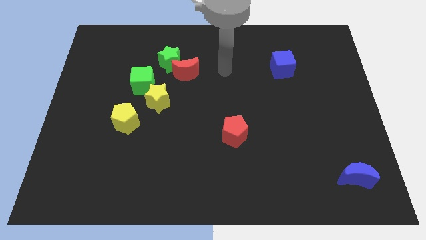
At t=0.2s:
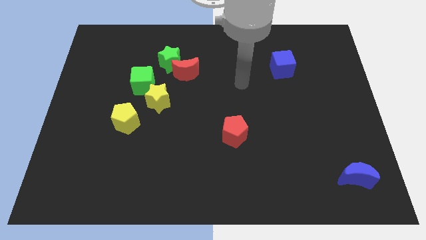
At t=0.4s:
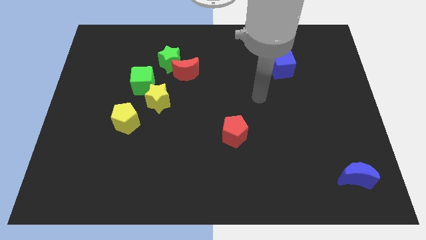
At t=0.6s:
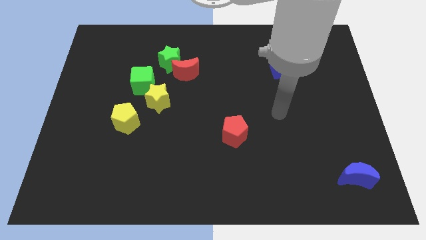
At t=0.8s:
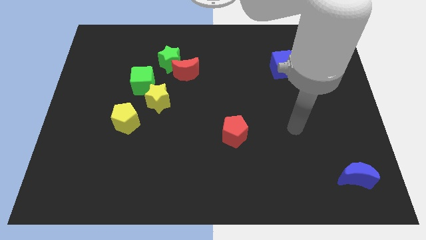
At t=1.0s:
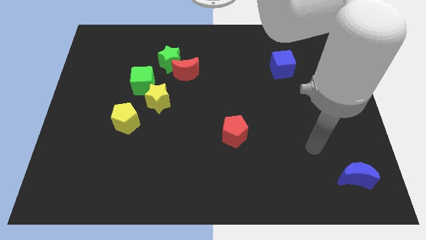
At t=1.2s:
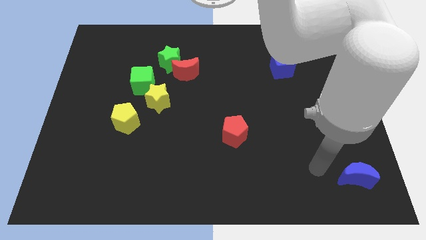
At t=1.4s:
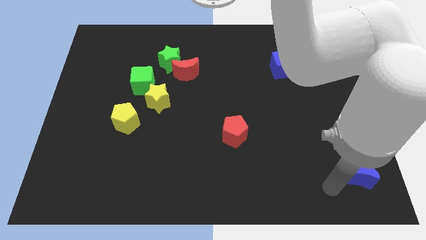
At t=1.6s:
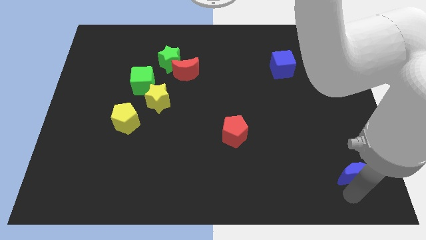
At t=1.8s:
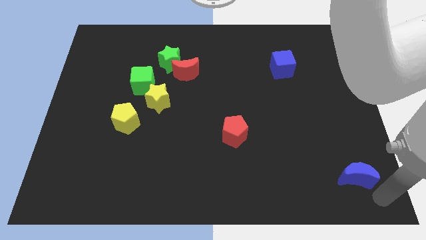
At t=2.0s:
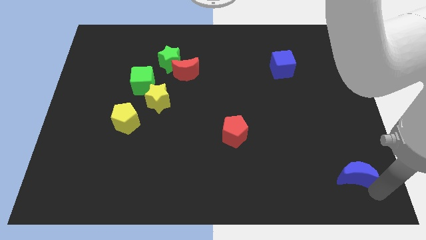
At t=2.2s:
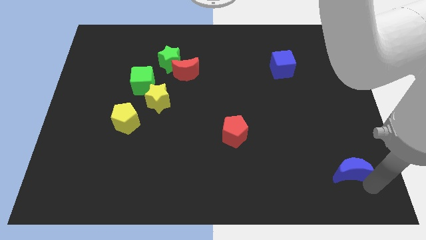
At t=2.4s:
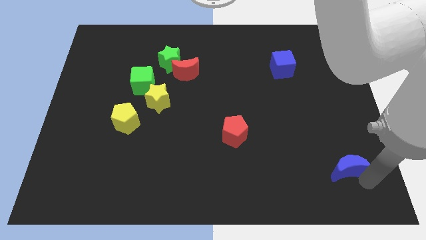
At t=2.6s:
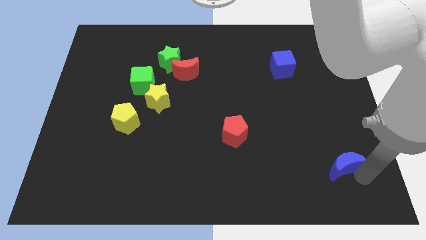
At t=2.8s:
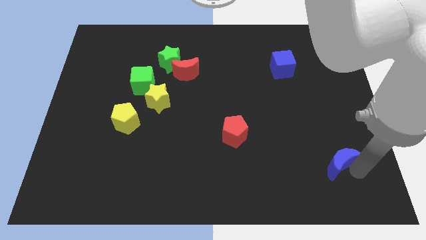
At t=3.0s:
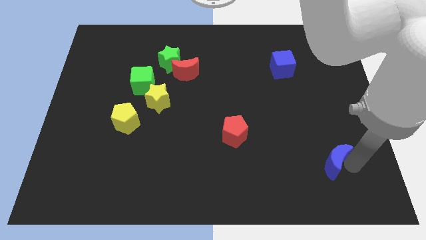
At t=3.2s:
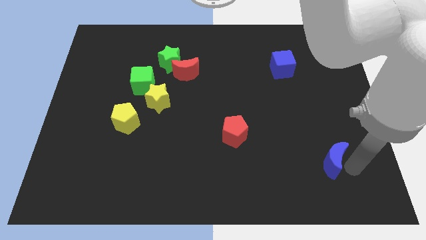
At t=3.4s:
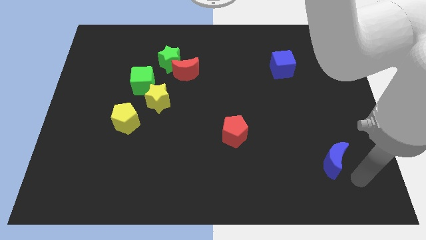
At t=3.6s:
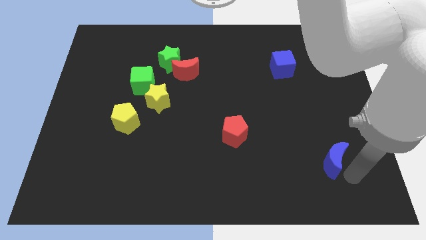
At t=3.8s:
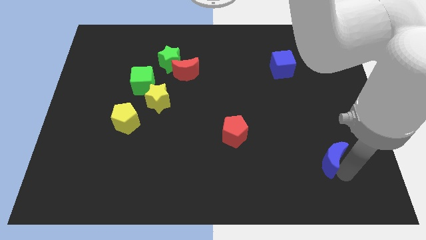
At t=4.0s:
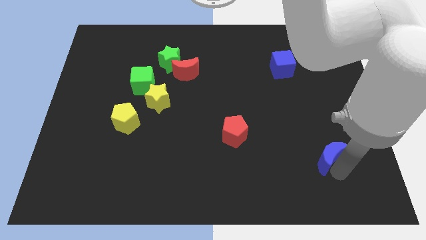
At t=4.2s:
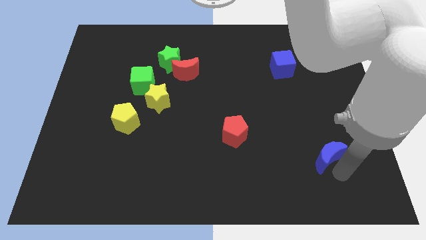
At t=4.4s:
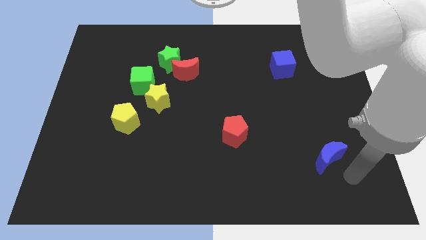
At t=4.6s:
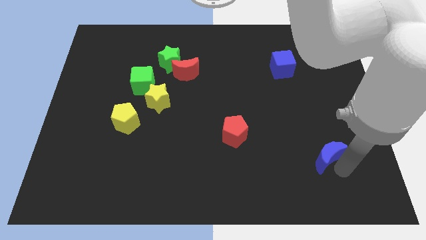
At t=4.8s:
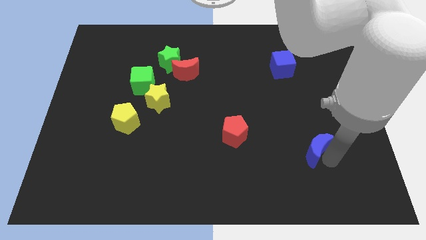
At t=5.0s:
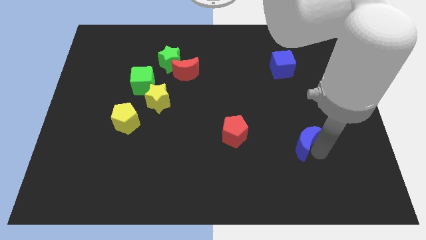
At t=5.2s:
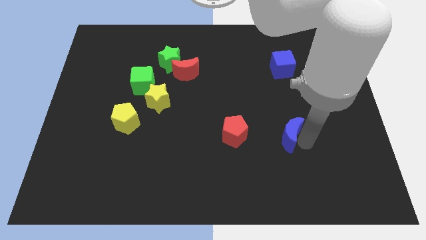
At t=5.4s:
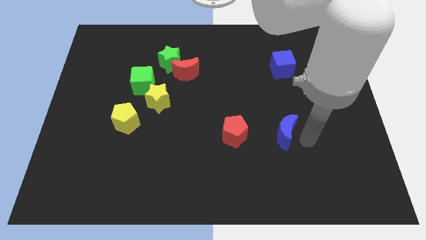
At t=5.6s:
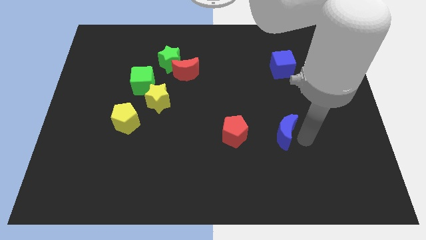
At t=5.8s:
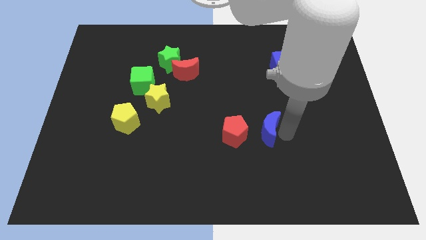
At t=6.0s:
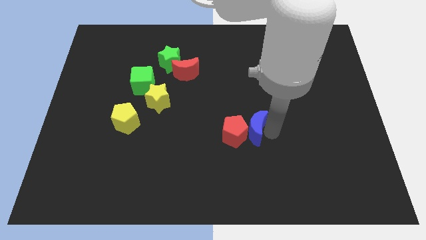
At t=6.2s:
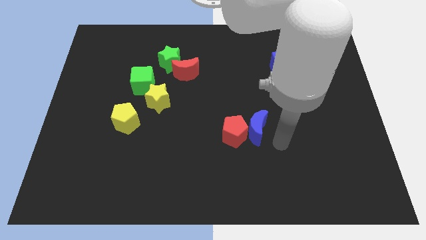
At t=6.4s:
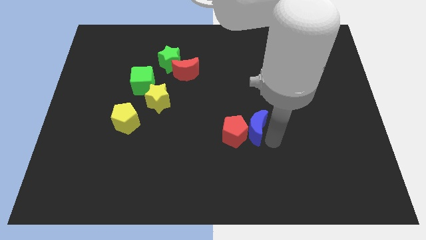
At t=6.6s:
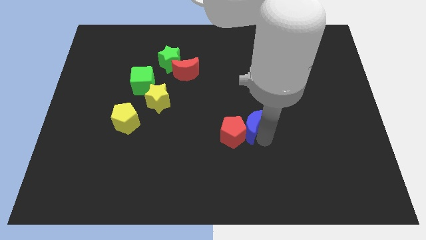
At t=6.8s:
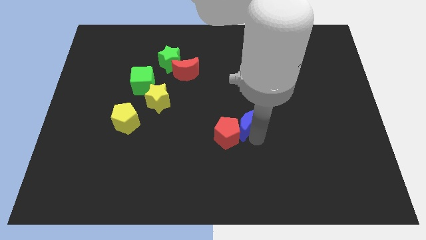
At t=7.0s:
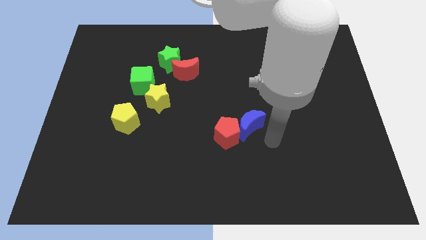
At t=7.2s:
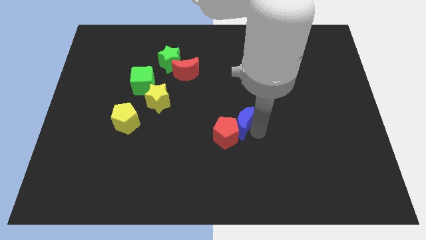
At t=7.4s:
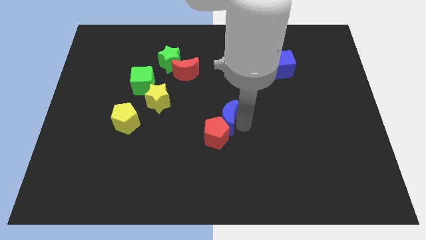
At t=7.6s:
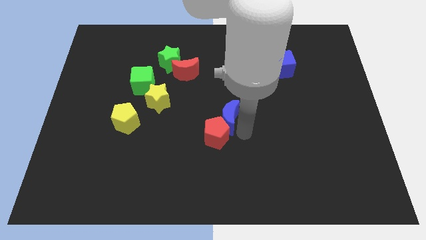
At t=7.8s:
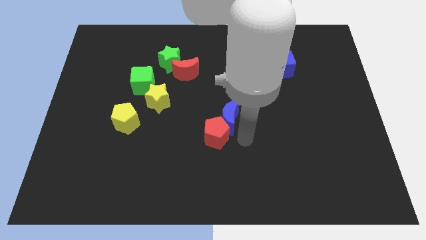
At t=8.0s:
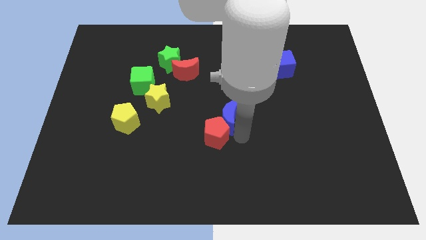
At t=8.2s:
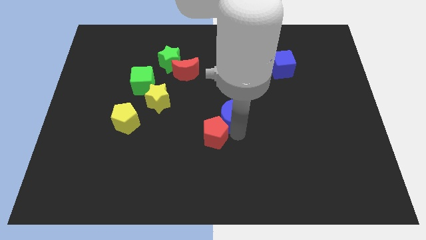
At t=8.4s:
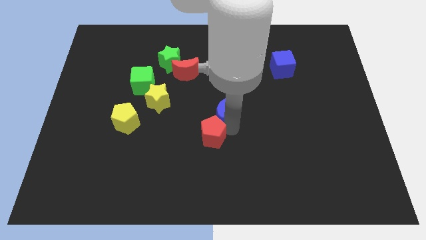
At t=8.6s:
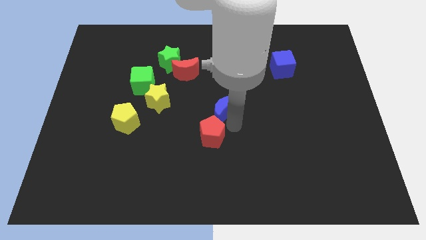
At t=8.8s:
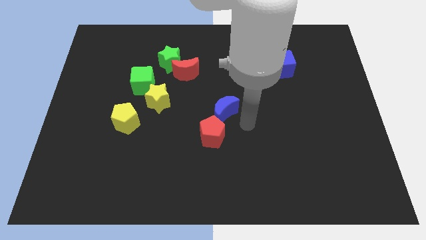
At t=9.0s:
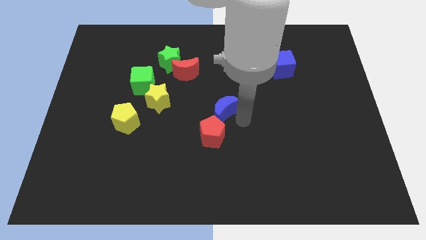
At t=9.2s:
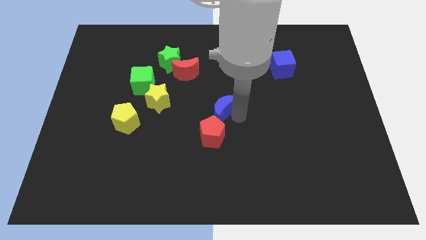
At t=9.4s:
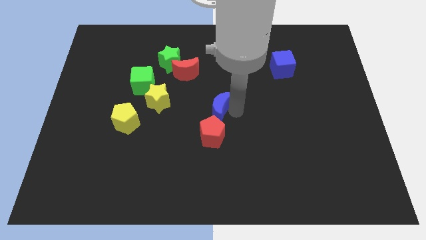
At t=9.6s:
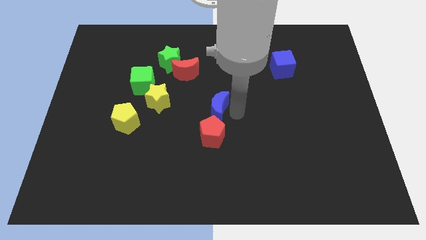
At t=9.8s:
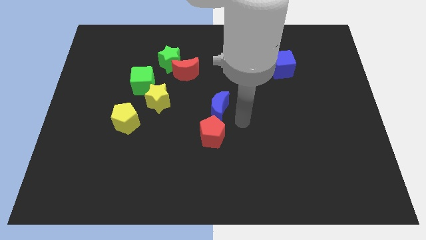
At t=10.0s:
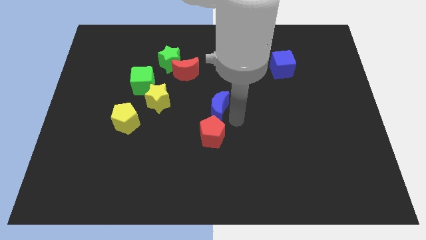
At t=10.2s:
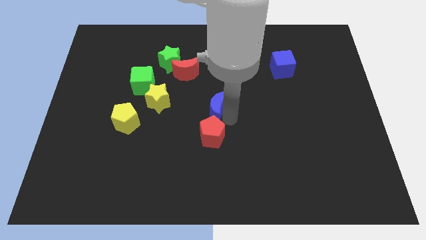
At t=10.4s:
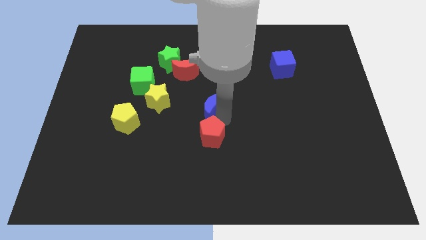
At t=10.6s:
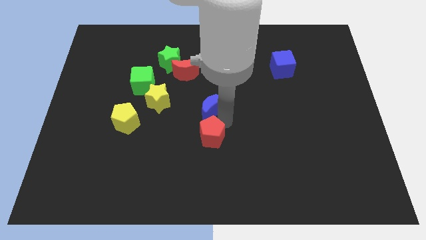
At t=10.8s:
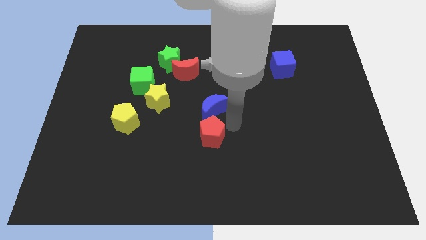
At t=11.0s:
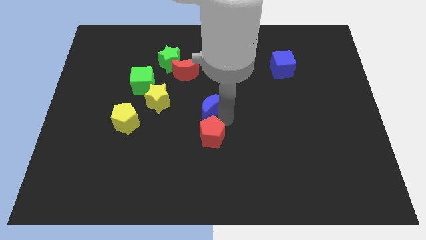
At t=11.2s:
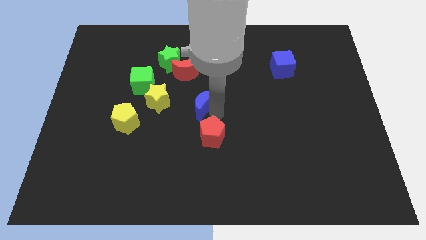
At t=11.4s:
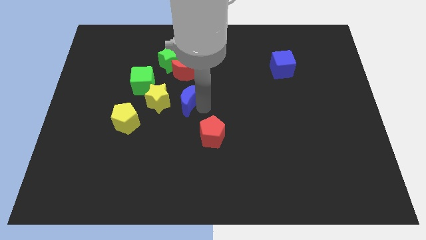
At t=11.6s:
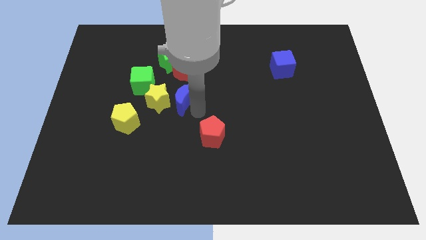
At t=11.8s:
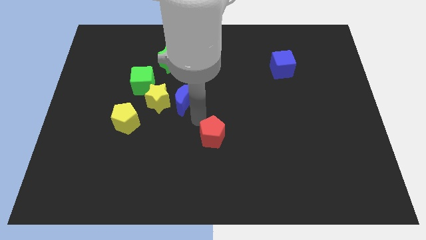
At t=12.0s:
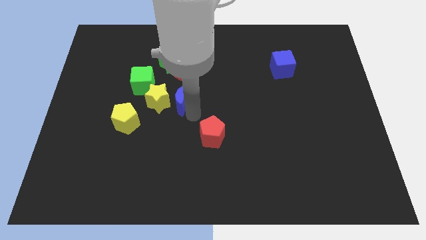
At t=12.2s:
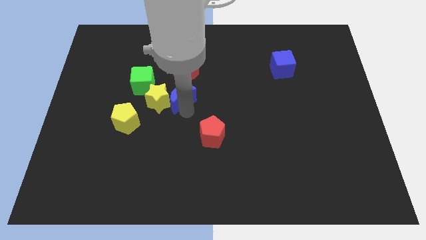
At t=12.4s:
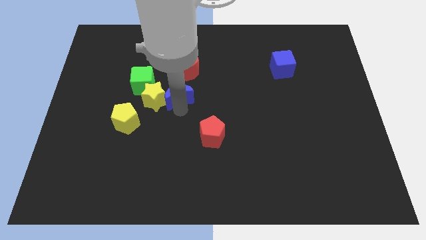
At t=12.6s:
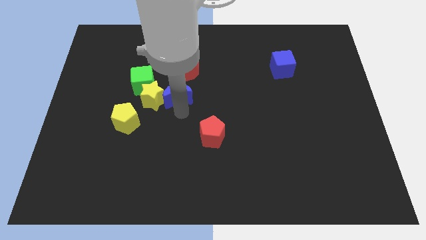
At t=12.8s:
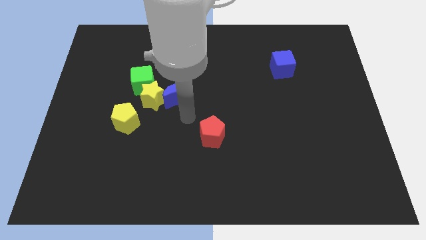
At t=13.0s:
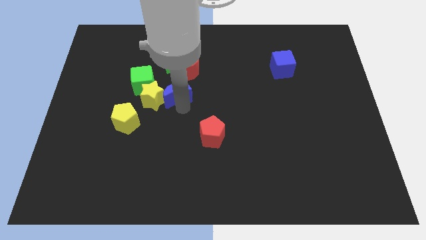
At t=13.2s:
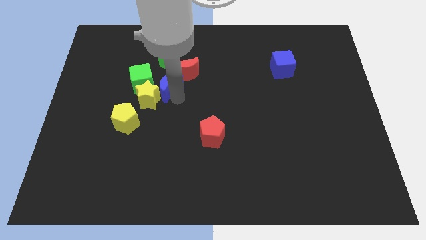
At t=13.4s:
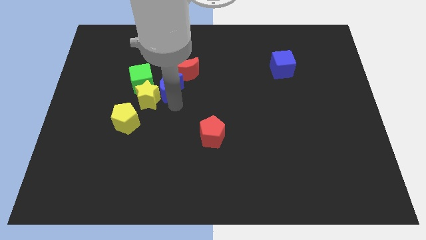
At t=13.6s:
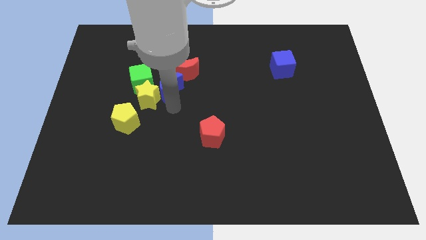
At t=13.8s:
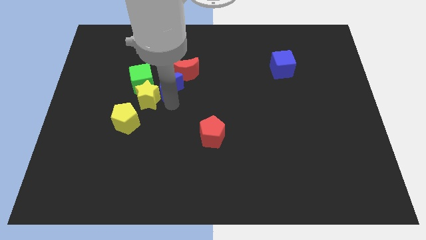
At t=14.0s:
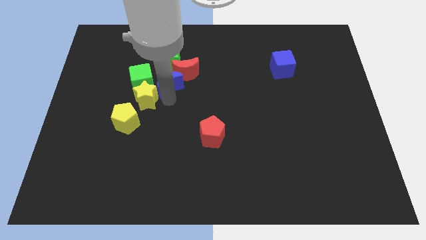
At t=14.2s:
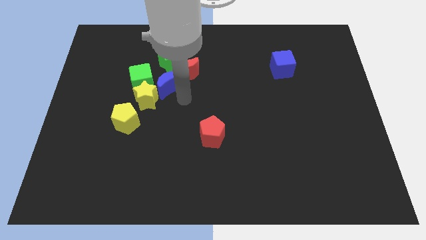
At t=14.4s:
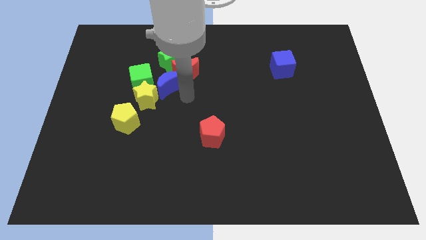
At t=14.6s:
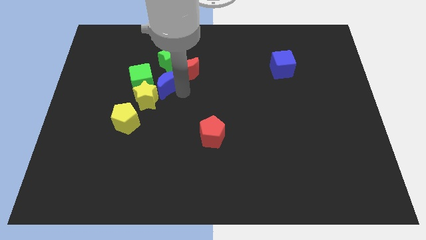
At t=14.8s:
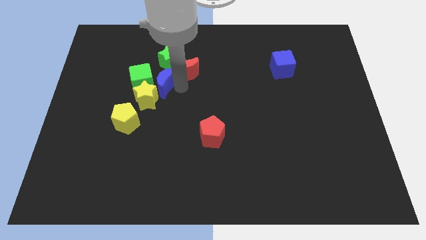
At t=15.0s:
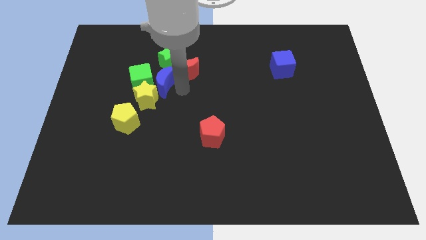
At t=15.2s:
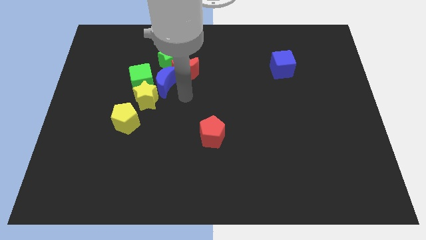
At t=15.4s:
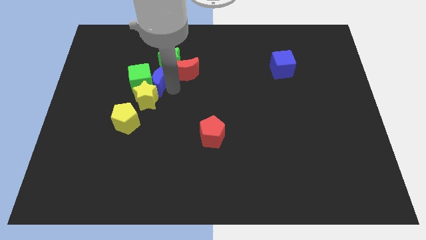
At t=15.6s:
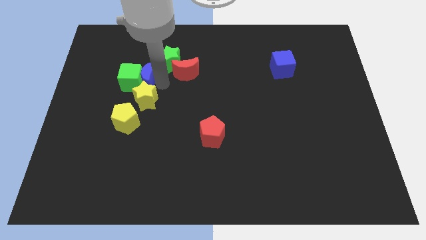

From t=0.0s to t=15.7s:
slide the blue moon above the yellow pentagon
